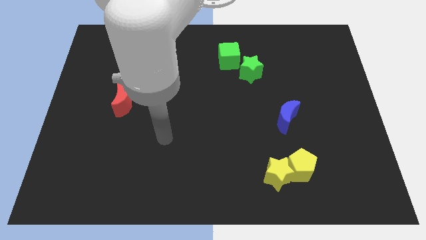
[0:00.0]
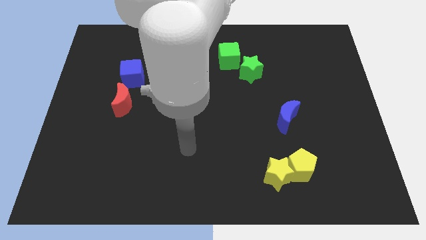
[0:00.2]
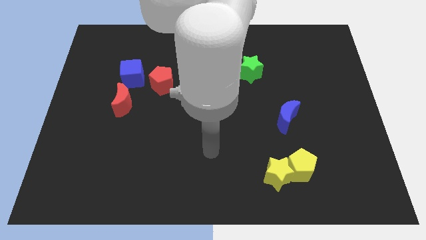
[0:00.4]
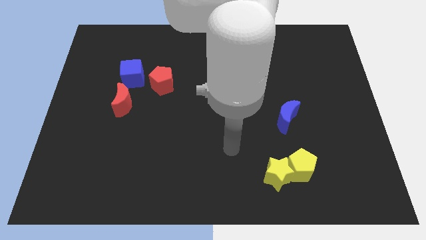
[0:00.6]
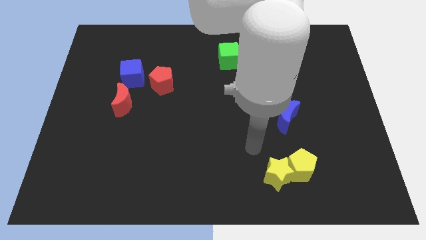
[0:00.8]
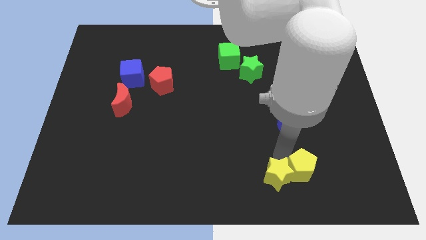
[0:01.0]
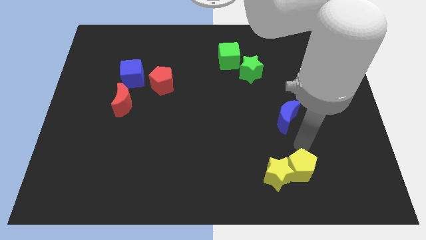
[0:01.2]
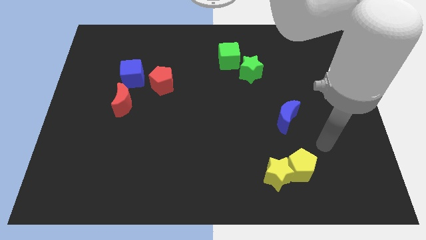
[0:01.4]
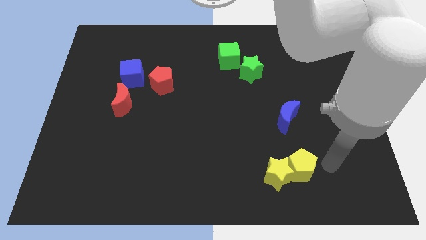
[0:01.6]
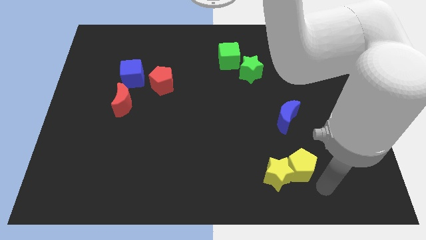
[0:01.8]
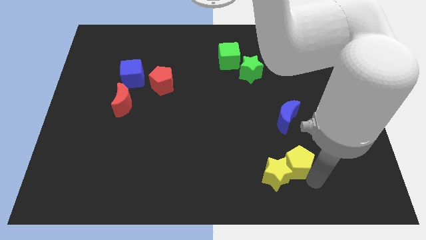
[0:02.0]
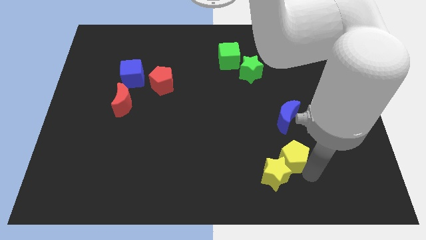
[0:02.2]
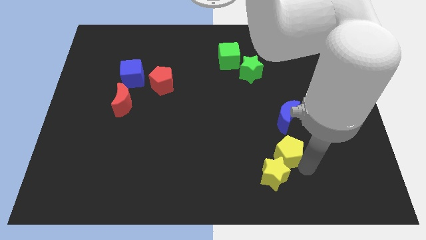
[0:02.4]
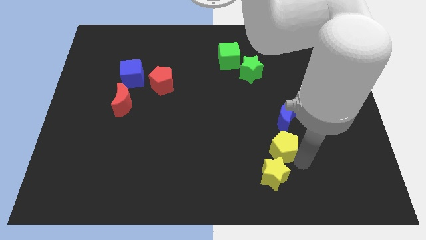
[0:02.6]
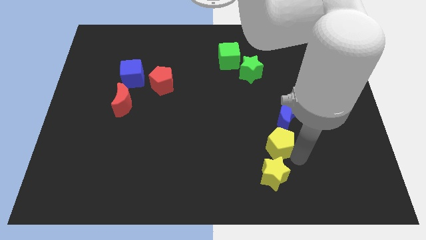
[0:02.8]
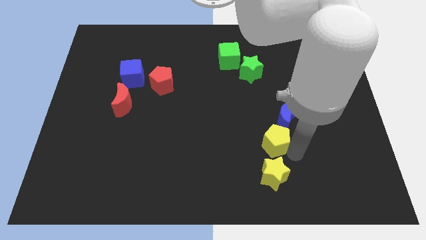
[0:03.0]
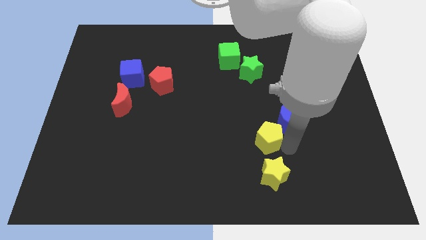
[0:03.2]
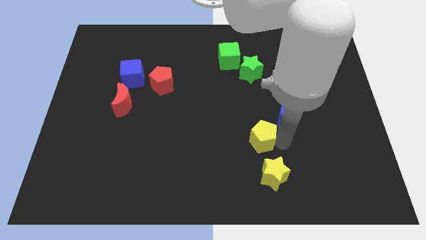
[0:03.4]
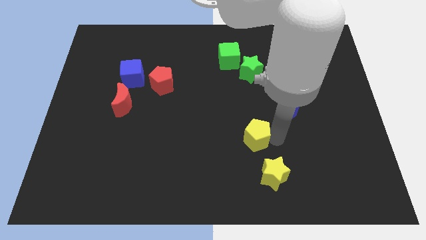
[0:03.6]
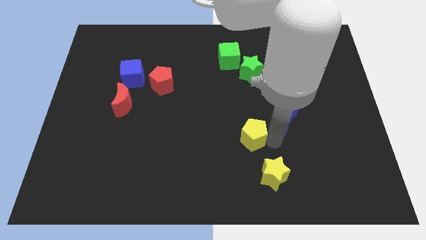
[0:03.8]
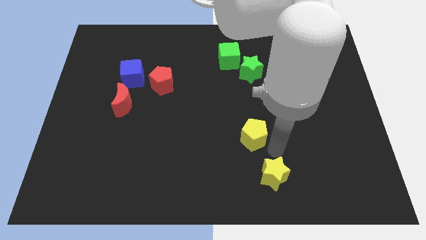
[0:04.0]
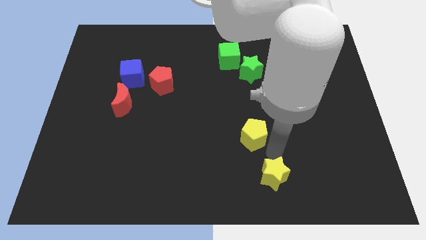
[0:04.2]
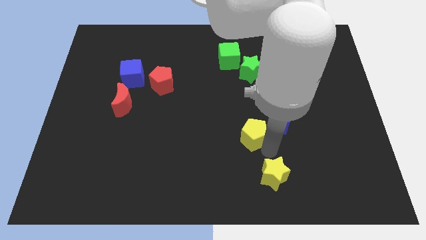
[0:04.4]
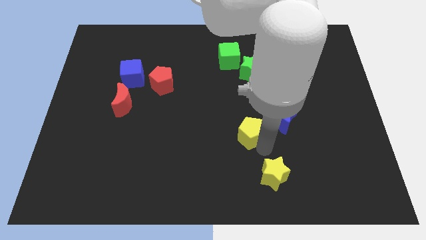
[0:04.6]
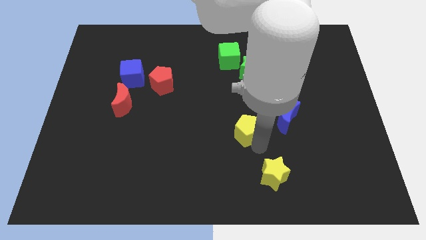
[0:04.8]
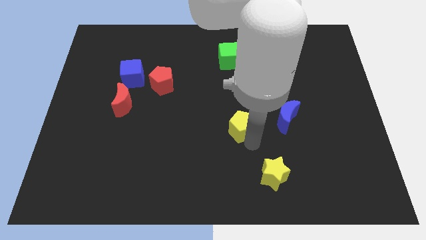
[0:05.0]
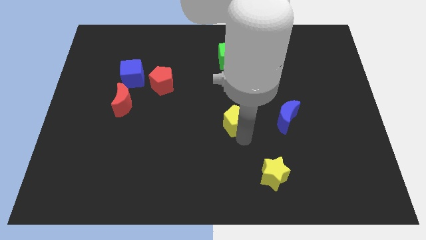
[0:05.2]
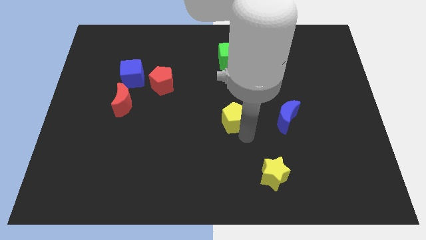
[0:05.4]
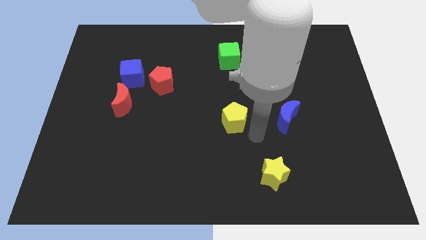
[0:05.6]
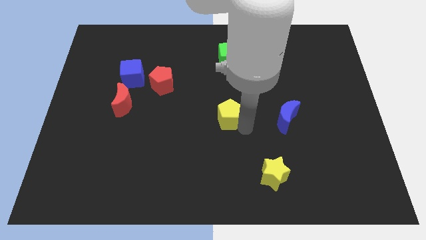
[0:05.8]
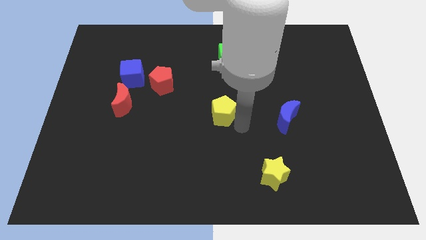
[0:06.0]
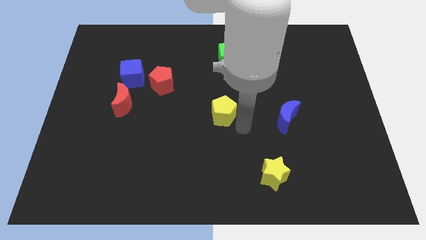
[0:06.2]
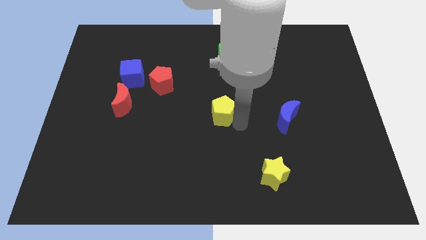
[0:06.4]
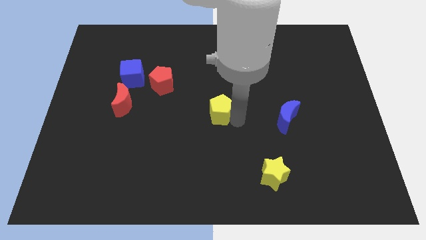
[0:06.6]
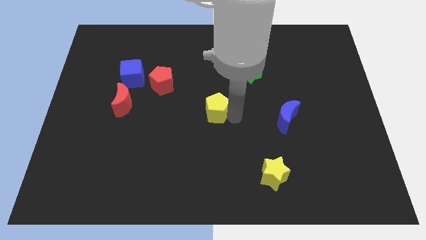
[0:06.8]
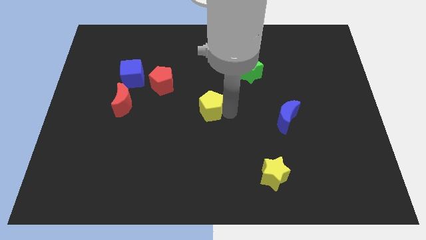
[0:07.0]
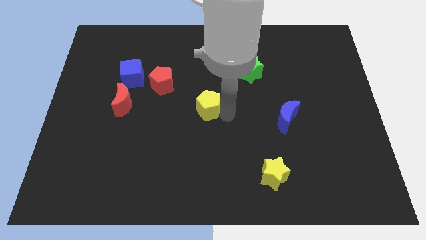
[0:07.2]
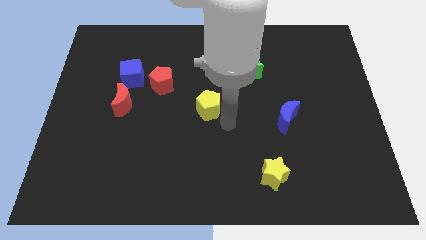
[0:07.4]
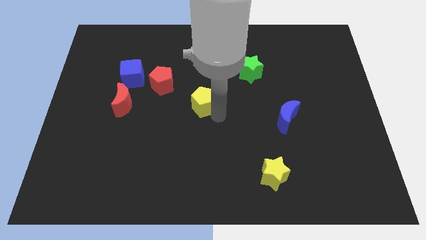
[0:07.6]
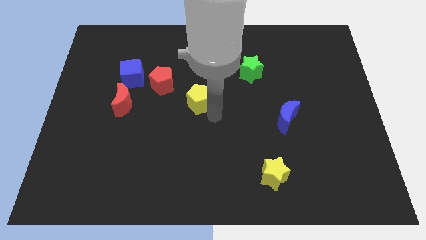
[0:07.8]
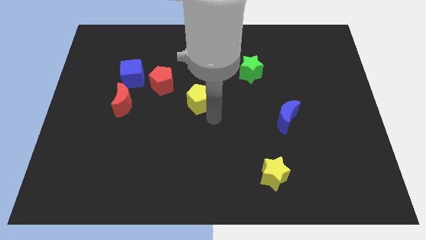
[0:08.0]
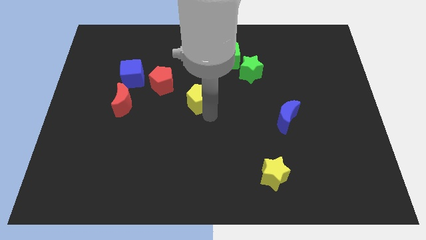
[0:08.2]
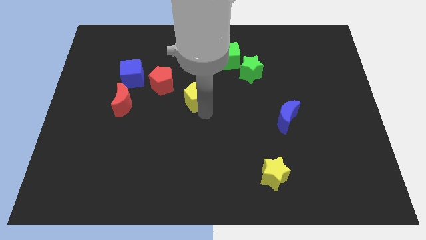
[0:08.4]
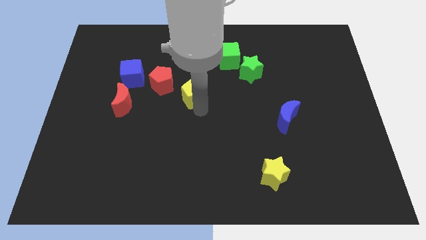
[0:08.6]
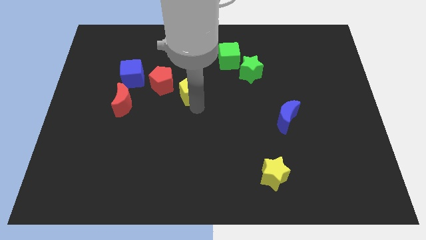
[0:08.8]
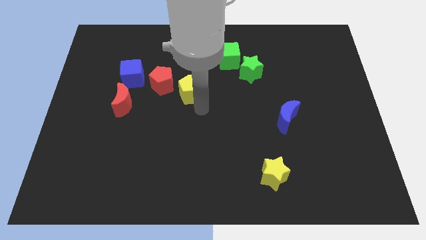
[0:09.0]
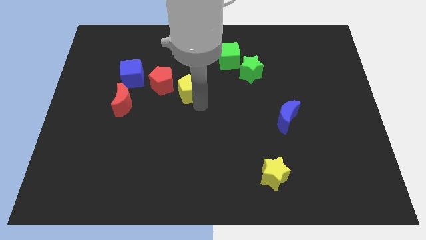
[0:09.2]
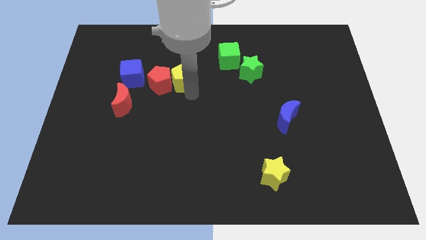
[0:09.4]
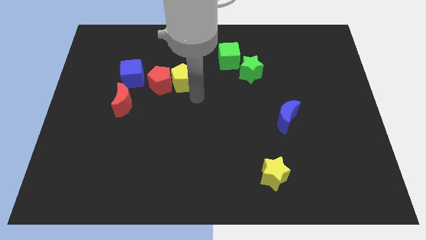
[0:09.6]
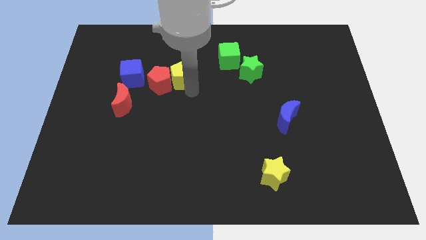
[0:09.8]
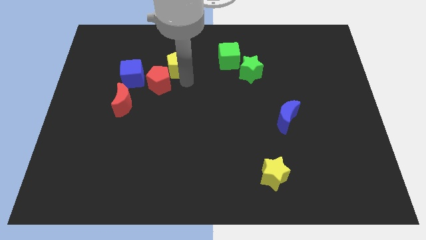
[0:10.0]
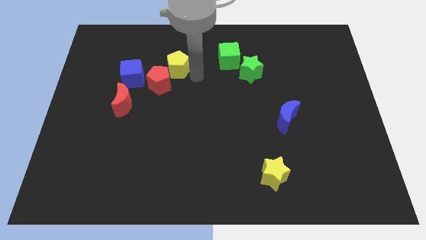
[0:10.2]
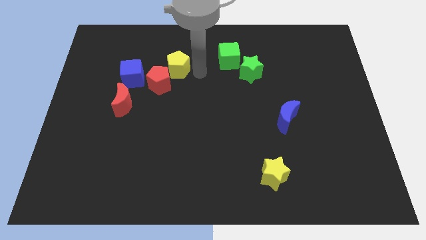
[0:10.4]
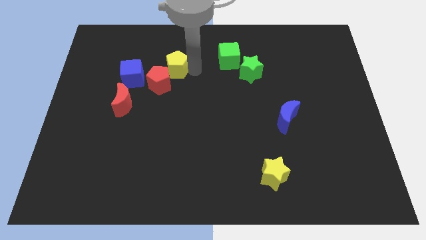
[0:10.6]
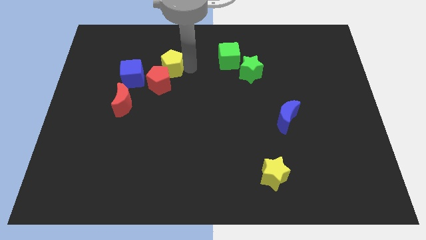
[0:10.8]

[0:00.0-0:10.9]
put the yellow pentagon to the top right of the blue cube
